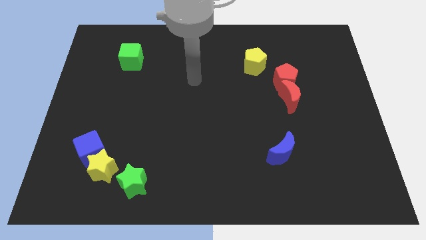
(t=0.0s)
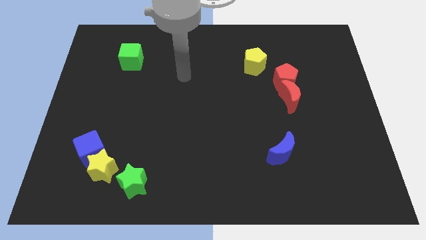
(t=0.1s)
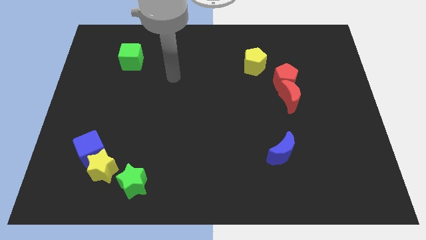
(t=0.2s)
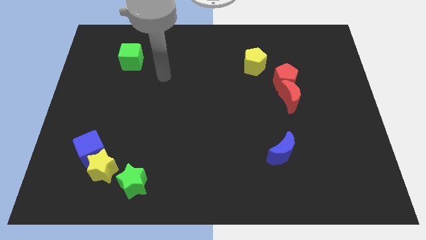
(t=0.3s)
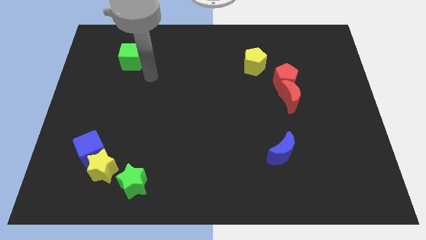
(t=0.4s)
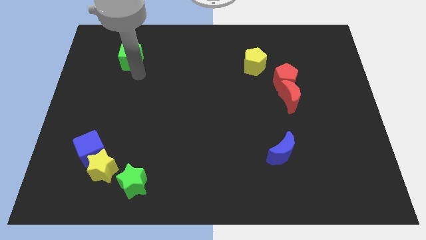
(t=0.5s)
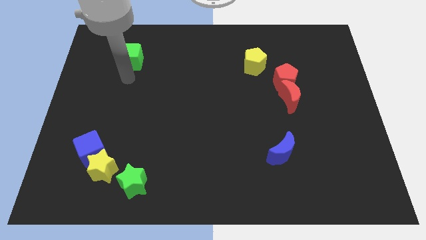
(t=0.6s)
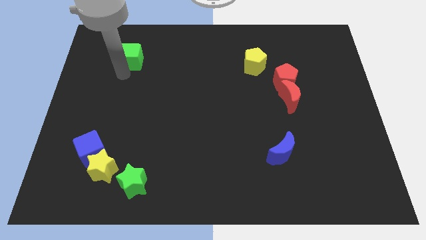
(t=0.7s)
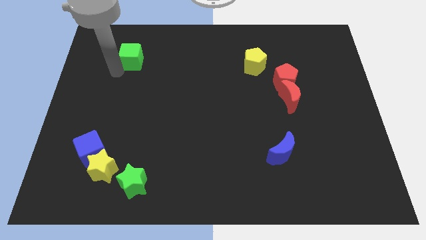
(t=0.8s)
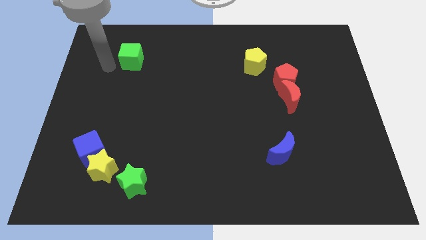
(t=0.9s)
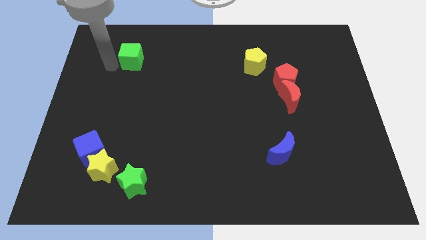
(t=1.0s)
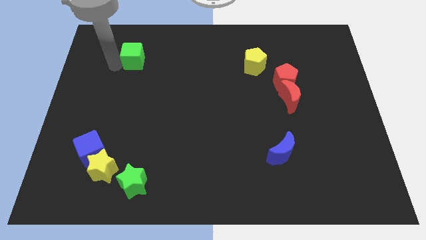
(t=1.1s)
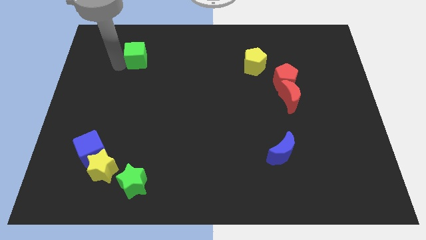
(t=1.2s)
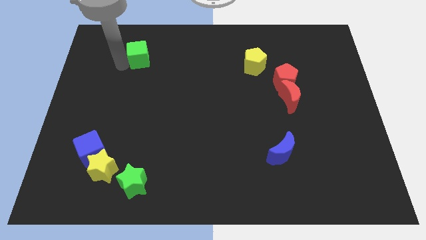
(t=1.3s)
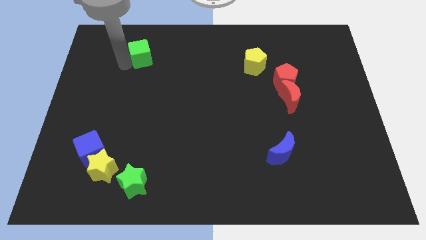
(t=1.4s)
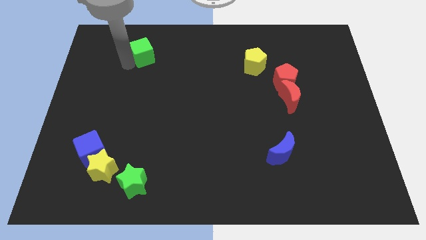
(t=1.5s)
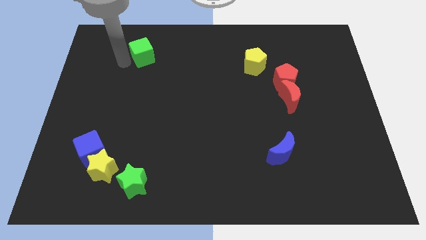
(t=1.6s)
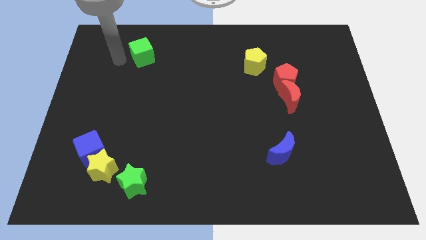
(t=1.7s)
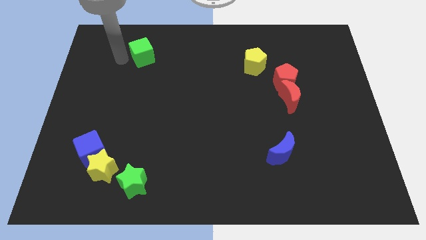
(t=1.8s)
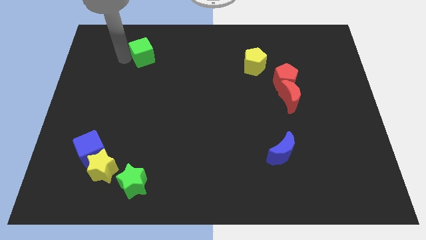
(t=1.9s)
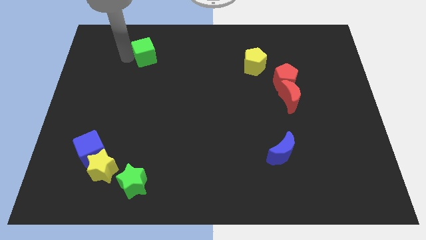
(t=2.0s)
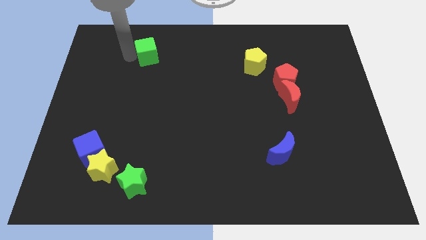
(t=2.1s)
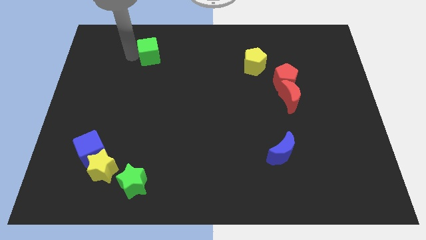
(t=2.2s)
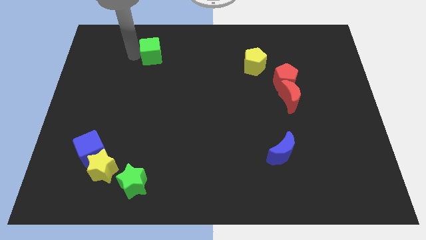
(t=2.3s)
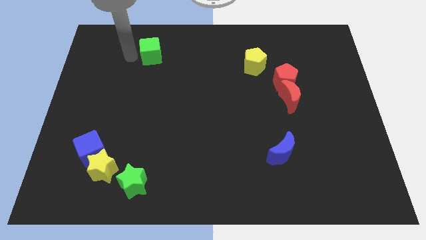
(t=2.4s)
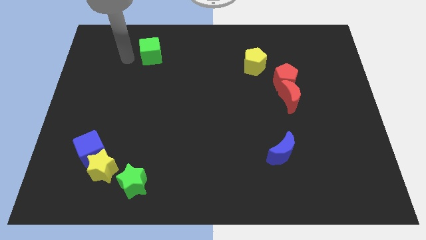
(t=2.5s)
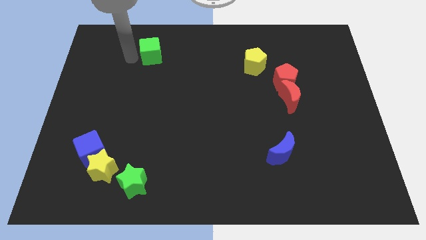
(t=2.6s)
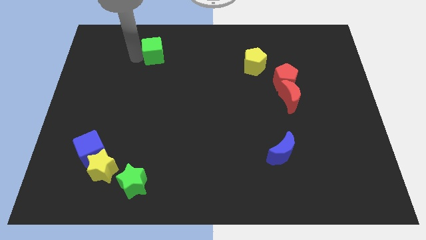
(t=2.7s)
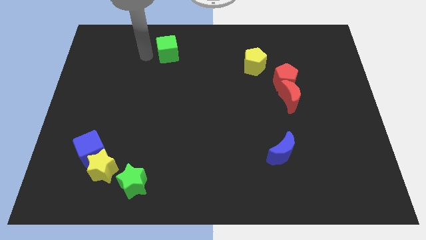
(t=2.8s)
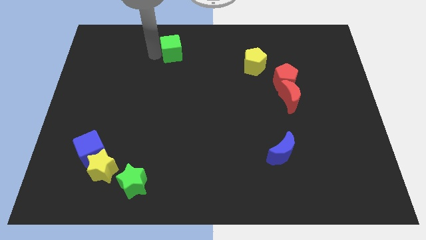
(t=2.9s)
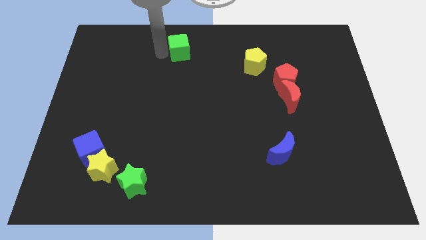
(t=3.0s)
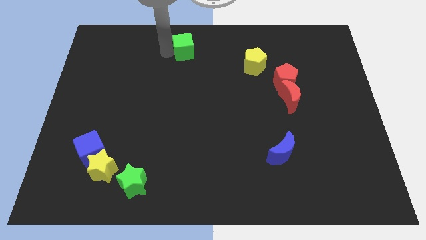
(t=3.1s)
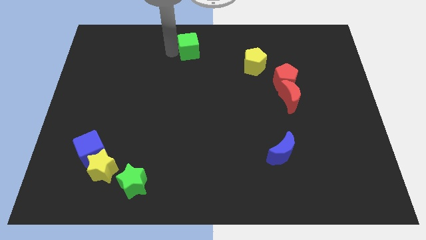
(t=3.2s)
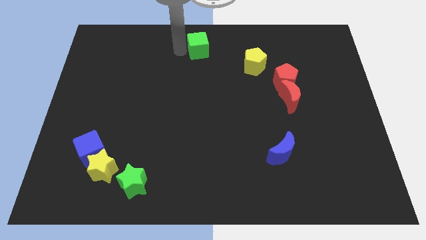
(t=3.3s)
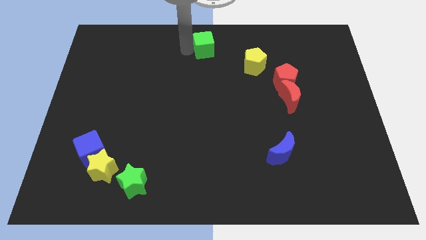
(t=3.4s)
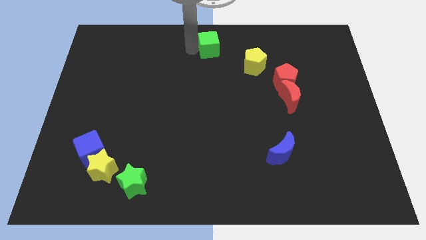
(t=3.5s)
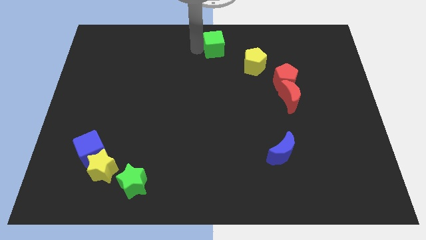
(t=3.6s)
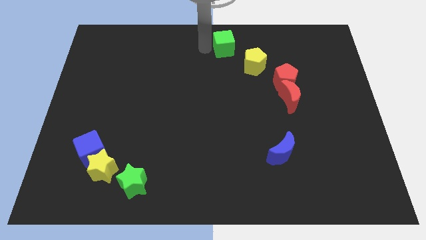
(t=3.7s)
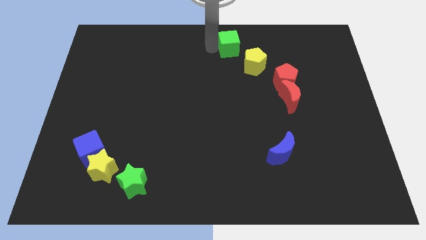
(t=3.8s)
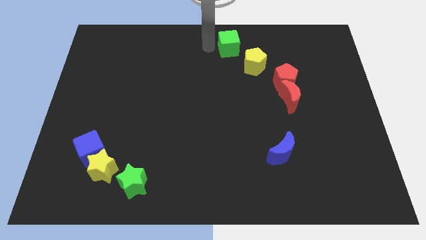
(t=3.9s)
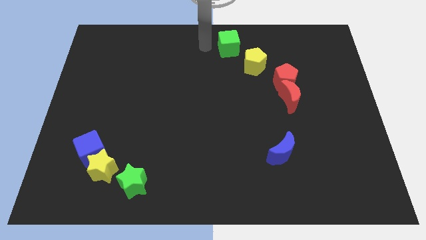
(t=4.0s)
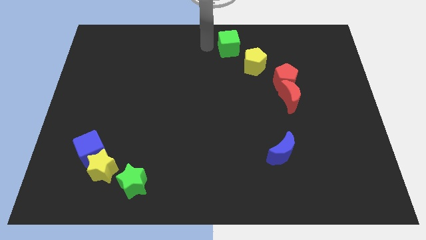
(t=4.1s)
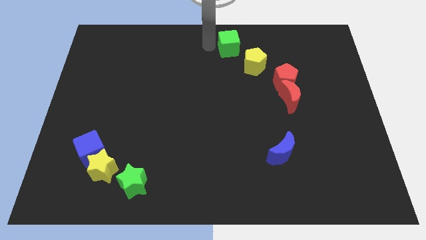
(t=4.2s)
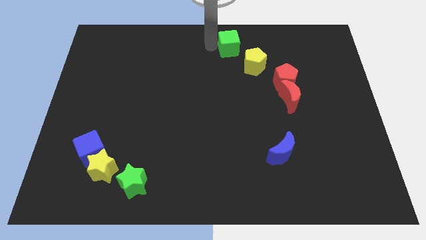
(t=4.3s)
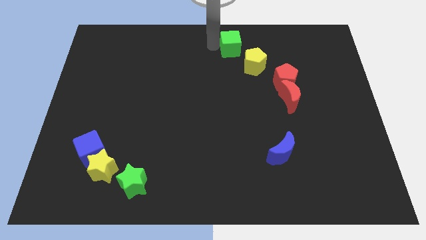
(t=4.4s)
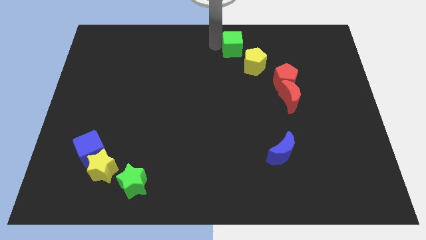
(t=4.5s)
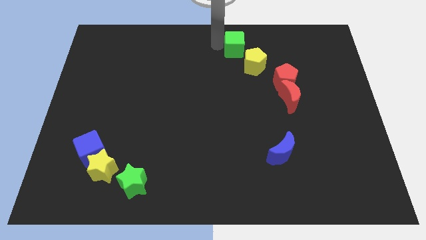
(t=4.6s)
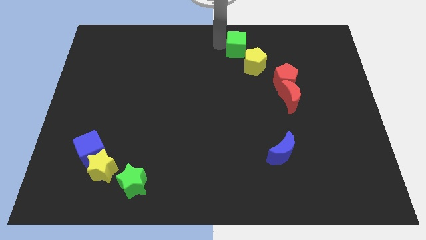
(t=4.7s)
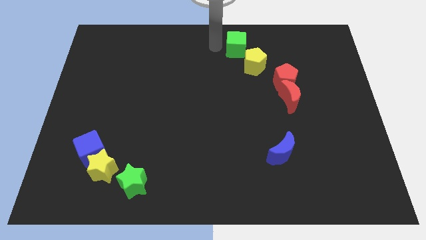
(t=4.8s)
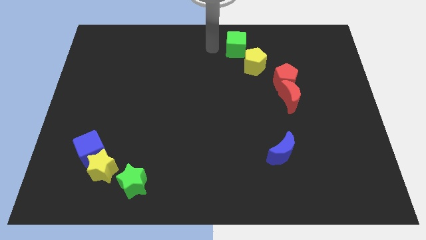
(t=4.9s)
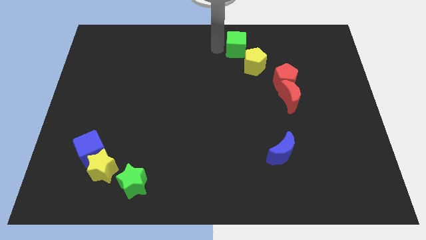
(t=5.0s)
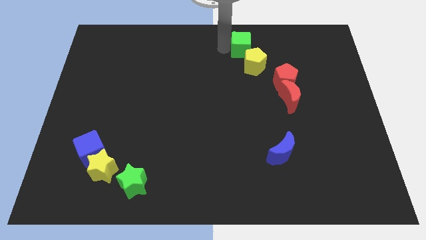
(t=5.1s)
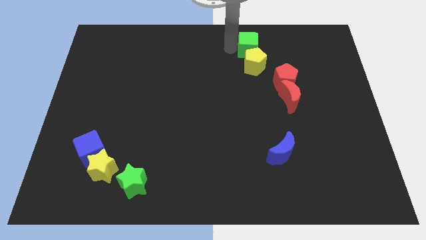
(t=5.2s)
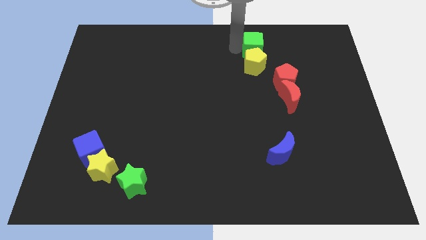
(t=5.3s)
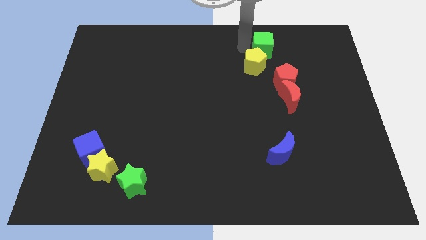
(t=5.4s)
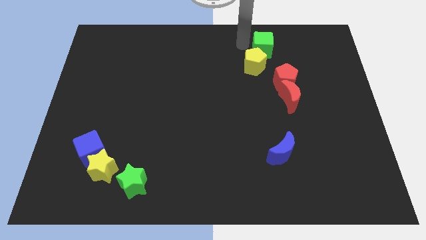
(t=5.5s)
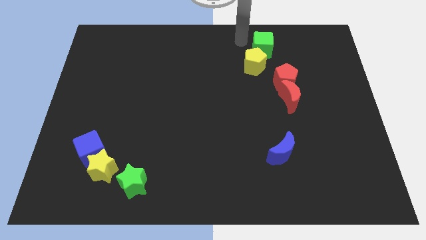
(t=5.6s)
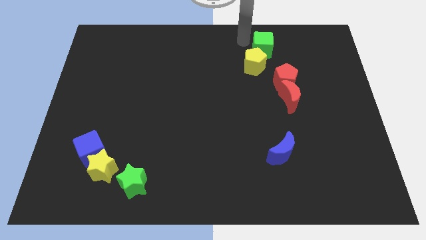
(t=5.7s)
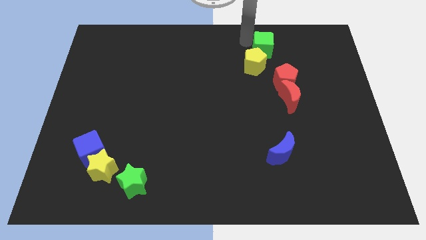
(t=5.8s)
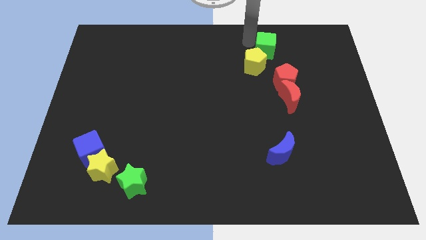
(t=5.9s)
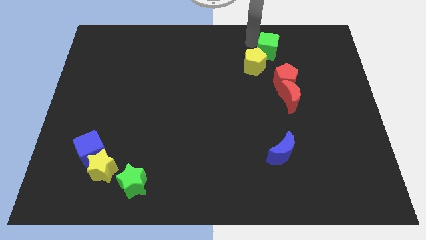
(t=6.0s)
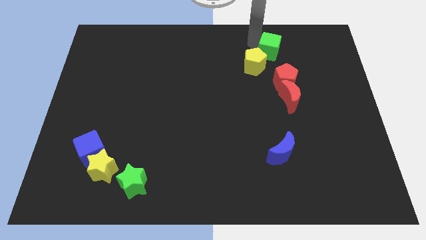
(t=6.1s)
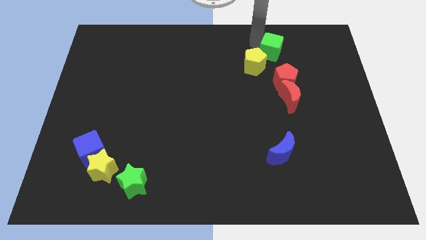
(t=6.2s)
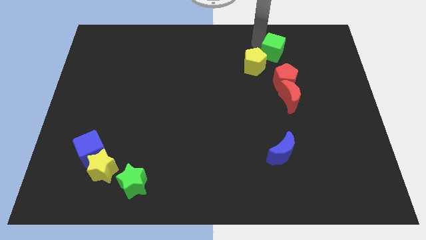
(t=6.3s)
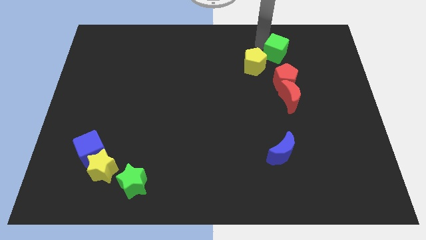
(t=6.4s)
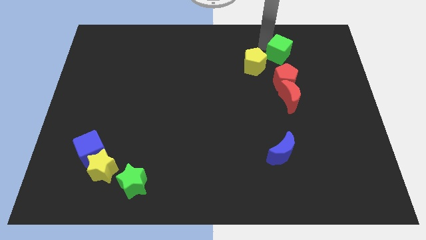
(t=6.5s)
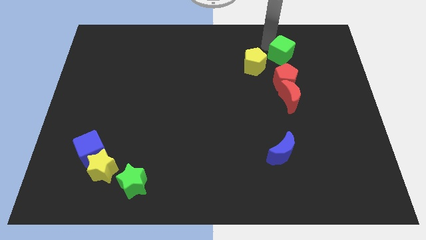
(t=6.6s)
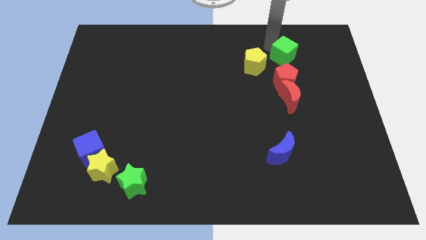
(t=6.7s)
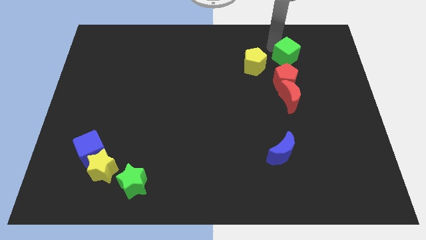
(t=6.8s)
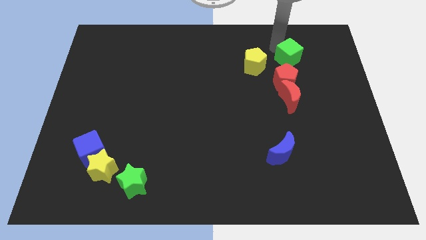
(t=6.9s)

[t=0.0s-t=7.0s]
push the green cube diagonally up and to the right of the red pentagon
